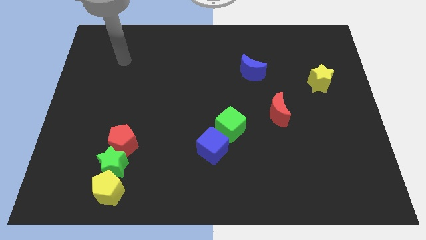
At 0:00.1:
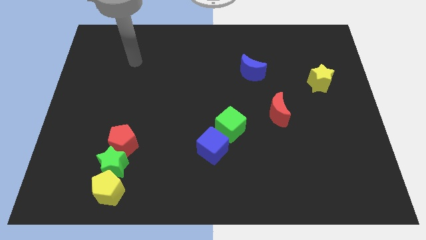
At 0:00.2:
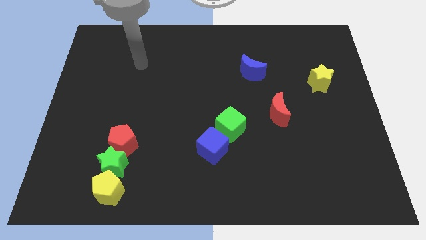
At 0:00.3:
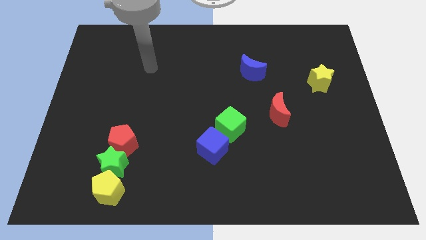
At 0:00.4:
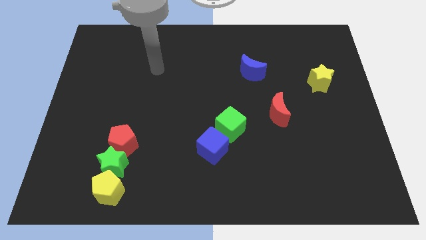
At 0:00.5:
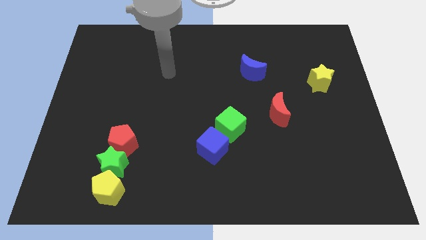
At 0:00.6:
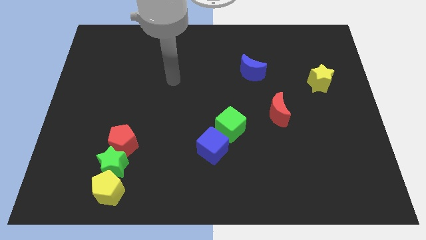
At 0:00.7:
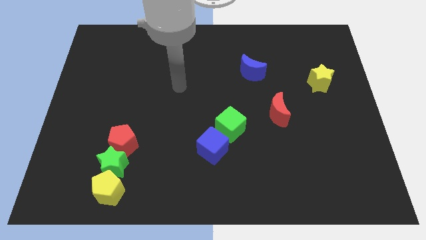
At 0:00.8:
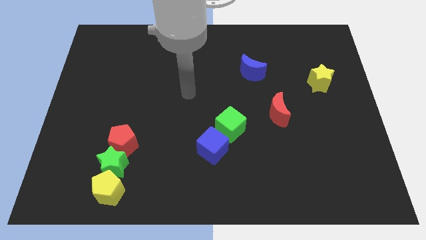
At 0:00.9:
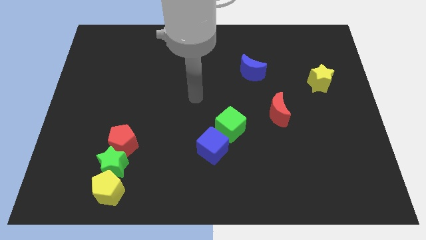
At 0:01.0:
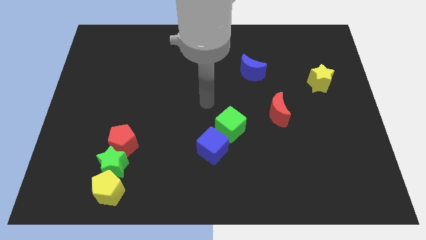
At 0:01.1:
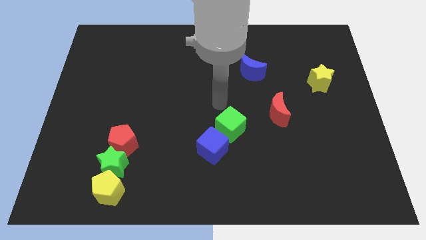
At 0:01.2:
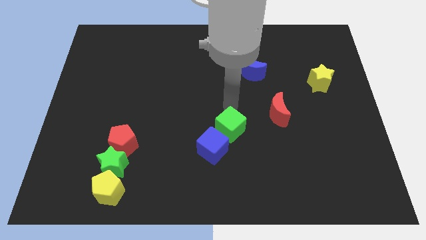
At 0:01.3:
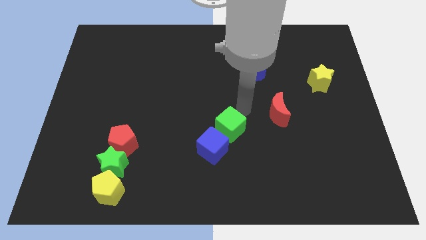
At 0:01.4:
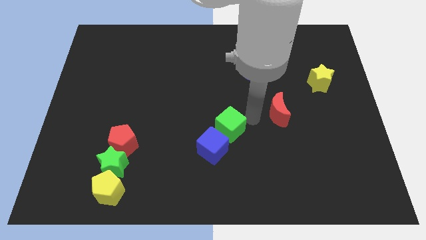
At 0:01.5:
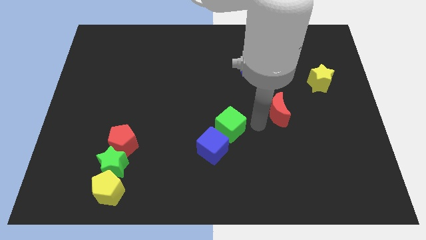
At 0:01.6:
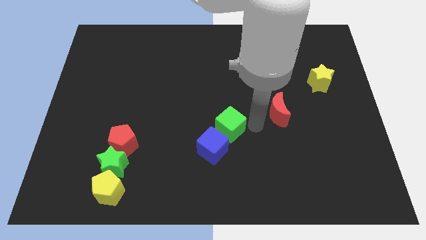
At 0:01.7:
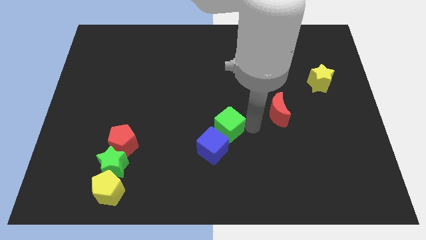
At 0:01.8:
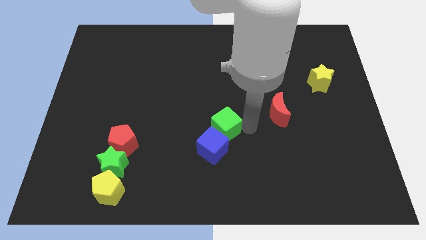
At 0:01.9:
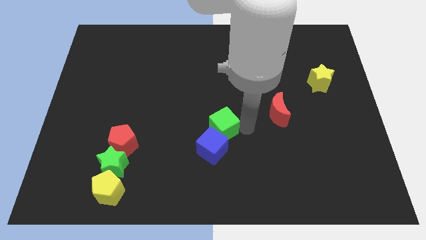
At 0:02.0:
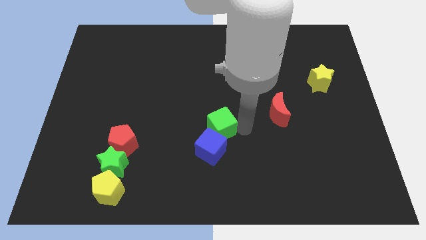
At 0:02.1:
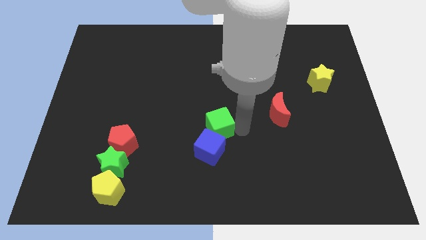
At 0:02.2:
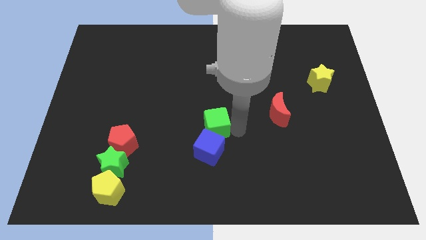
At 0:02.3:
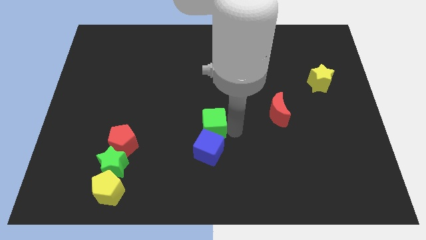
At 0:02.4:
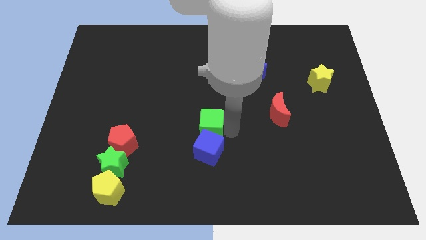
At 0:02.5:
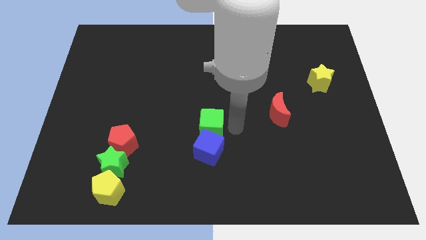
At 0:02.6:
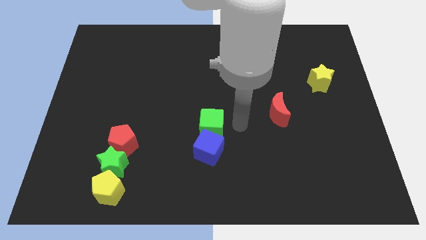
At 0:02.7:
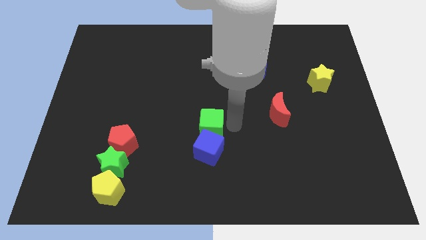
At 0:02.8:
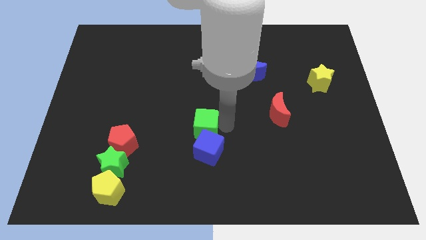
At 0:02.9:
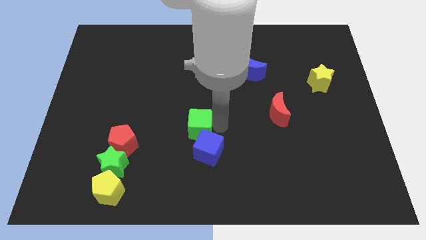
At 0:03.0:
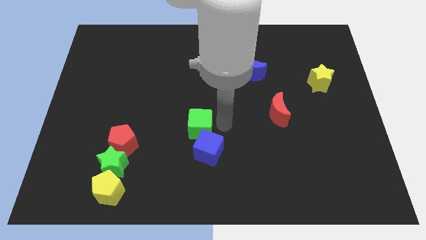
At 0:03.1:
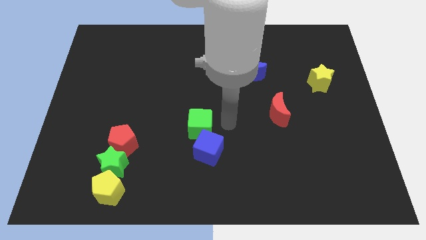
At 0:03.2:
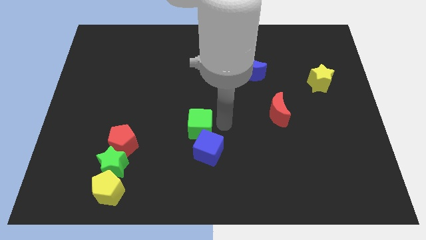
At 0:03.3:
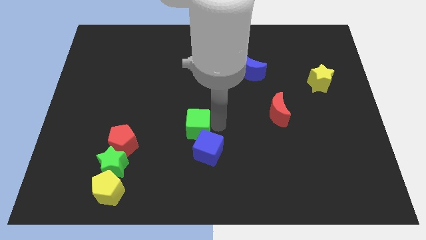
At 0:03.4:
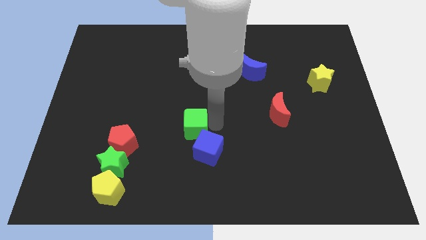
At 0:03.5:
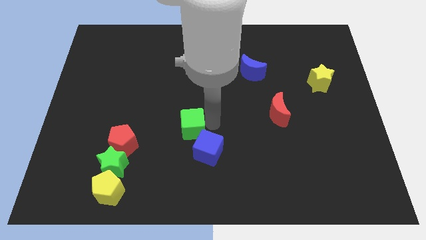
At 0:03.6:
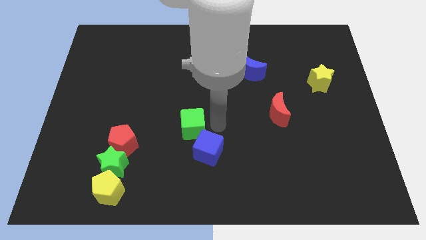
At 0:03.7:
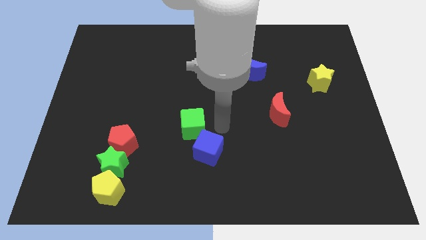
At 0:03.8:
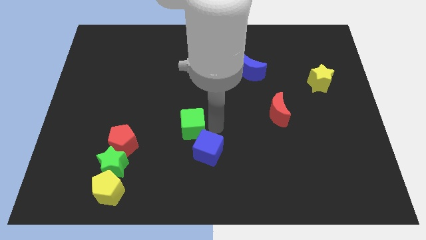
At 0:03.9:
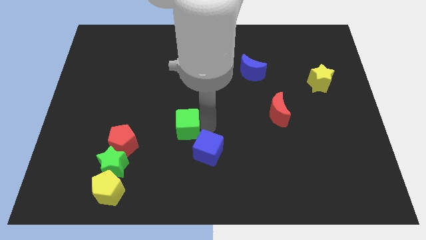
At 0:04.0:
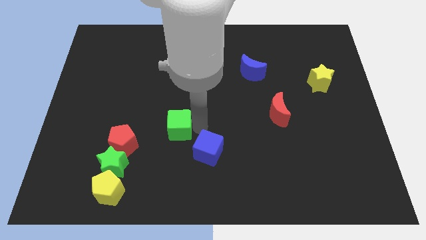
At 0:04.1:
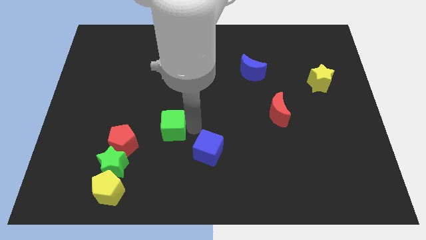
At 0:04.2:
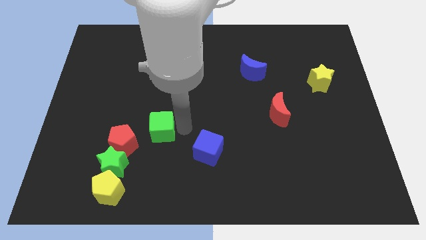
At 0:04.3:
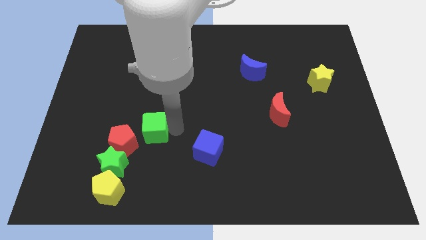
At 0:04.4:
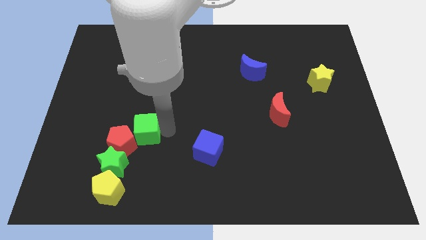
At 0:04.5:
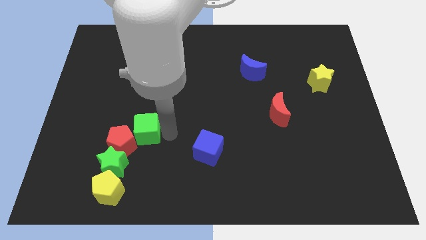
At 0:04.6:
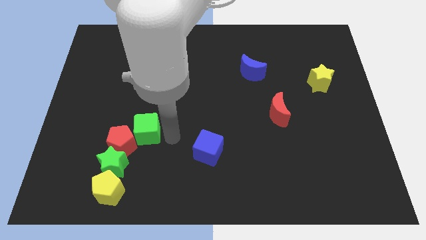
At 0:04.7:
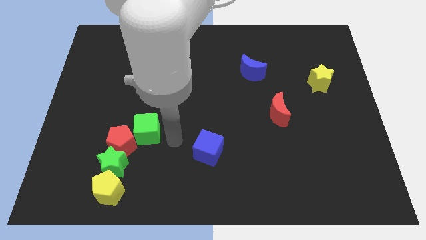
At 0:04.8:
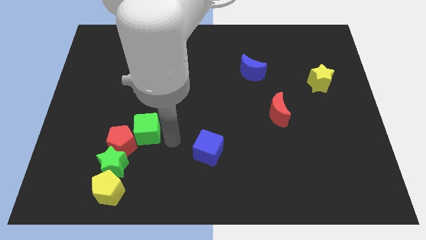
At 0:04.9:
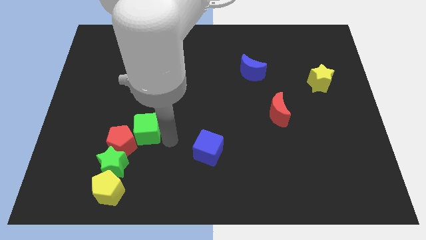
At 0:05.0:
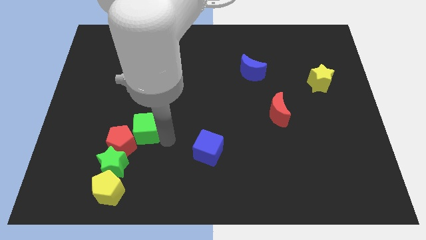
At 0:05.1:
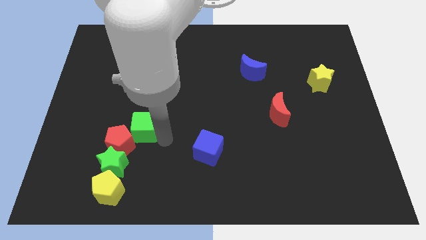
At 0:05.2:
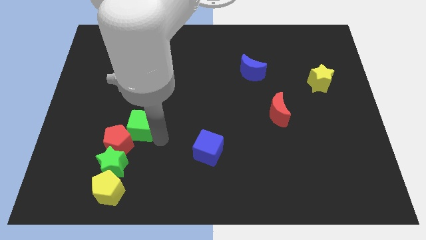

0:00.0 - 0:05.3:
slide the green cube left

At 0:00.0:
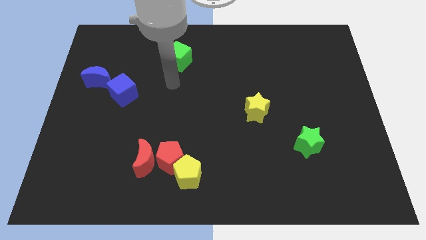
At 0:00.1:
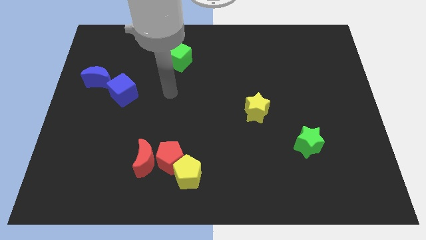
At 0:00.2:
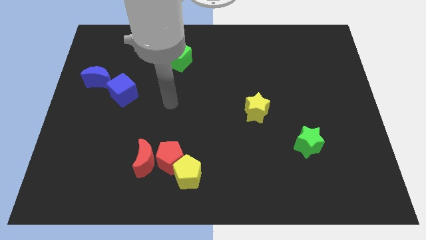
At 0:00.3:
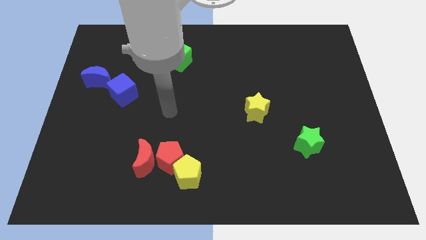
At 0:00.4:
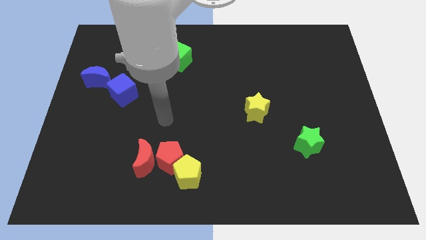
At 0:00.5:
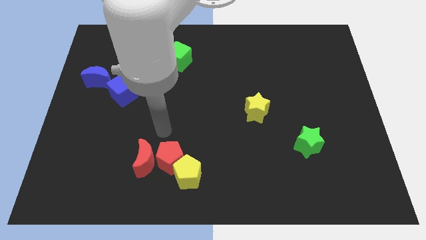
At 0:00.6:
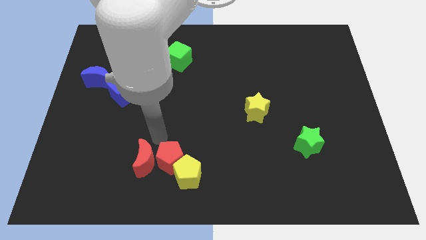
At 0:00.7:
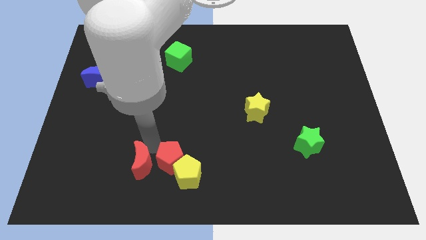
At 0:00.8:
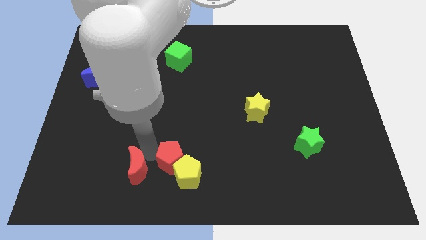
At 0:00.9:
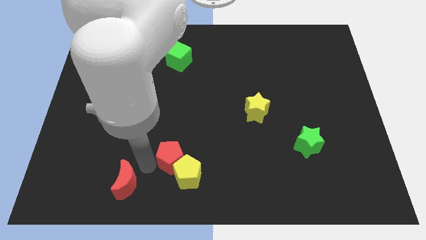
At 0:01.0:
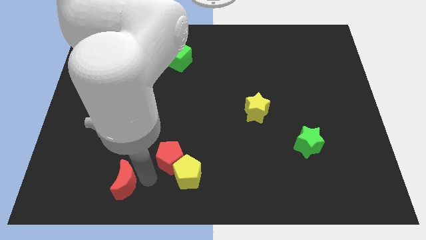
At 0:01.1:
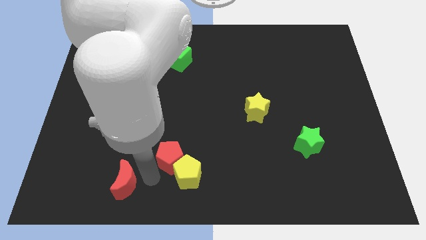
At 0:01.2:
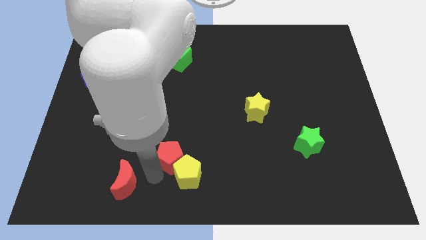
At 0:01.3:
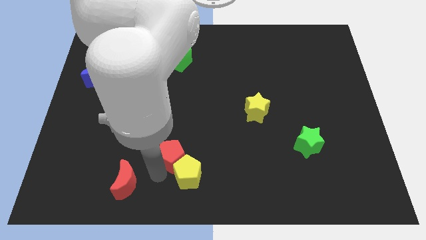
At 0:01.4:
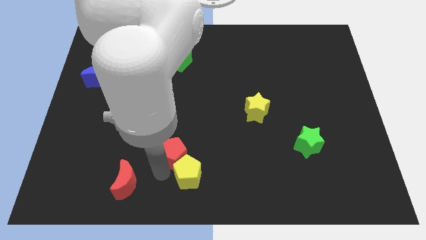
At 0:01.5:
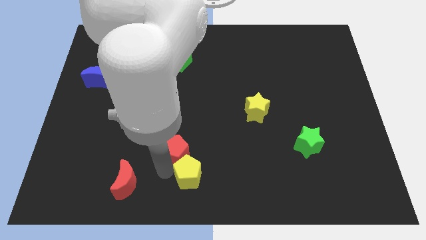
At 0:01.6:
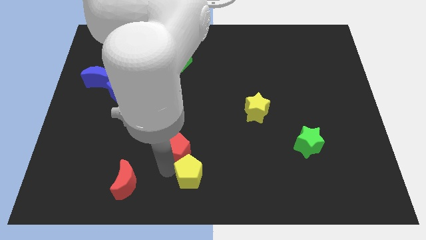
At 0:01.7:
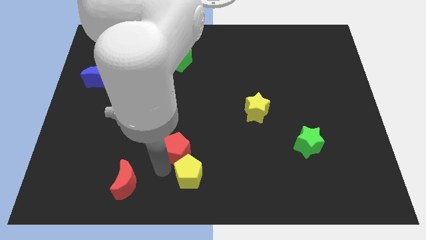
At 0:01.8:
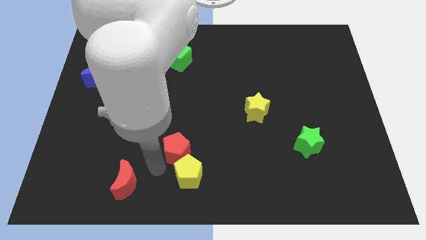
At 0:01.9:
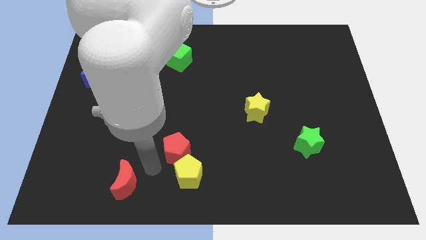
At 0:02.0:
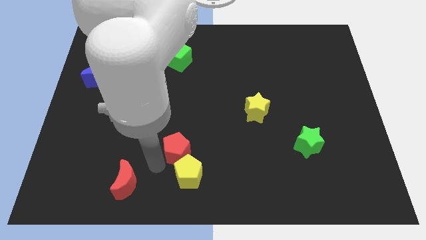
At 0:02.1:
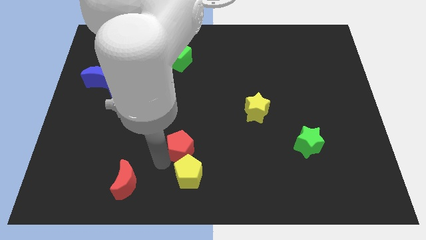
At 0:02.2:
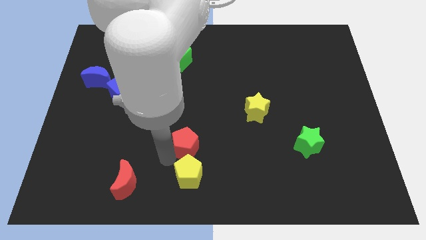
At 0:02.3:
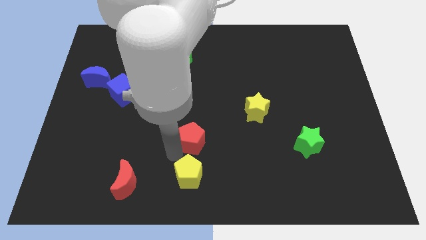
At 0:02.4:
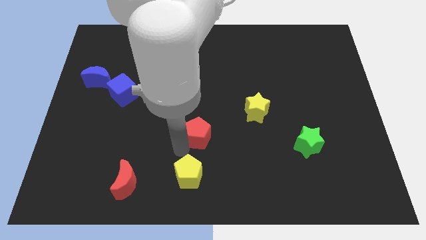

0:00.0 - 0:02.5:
slightly move the red pentagon diagonally up and right

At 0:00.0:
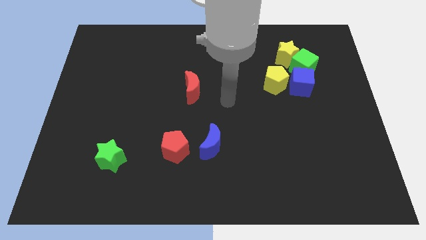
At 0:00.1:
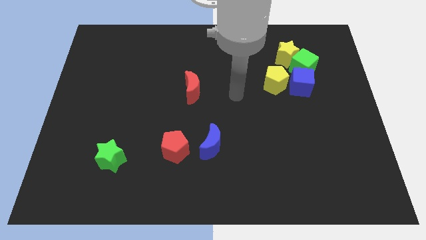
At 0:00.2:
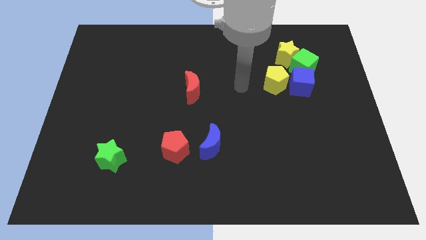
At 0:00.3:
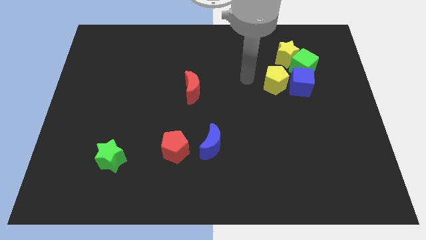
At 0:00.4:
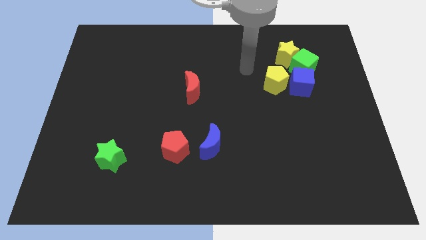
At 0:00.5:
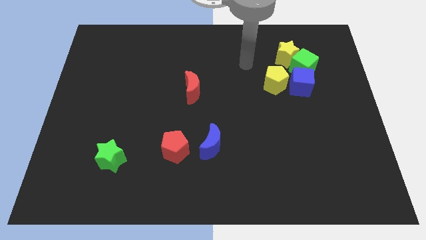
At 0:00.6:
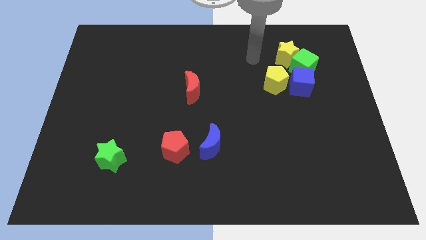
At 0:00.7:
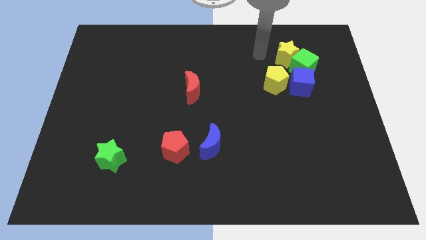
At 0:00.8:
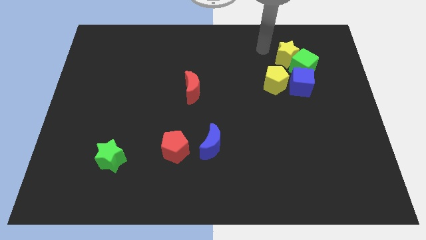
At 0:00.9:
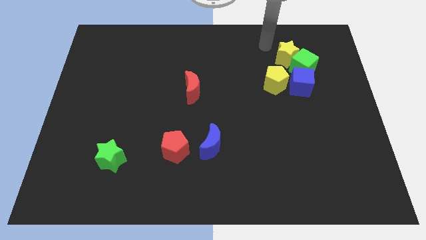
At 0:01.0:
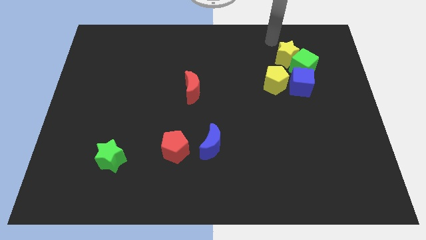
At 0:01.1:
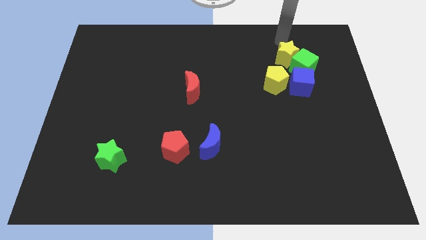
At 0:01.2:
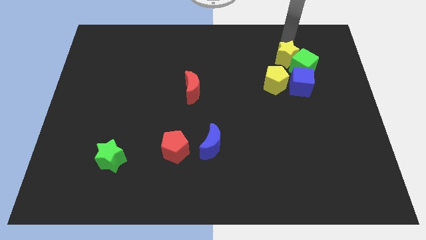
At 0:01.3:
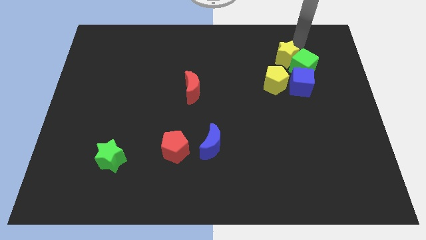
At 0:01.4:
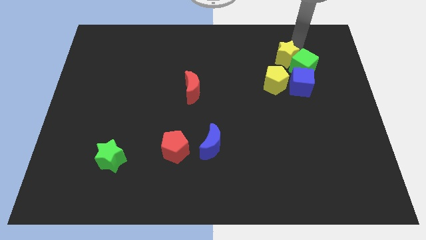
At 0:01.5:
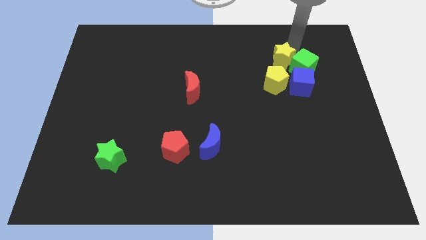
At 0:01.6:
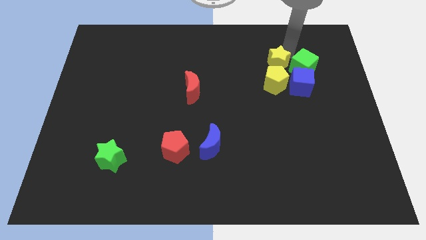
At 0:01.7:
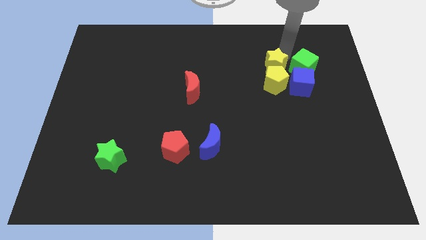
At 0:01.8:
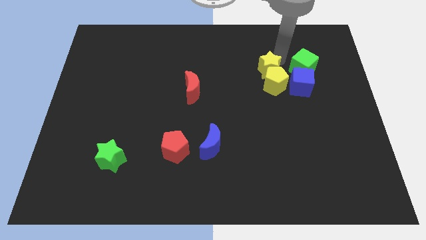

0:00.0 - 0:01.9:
slide the yellow star downwards and to the left slightly
